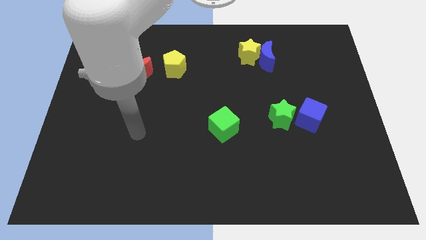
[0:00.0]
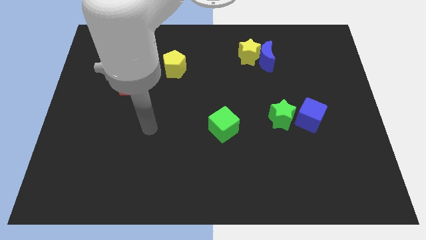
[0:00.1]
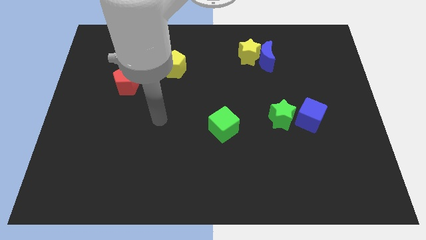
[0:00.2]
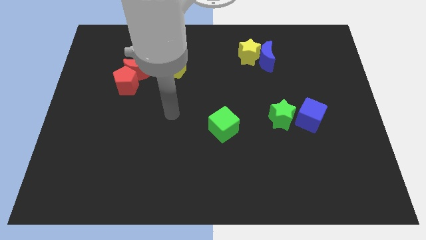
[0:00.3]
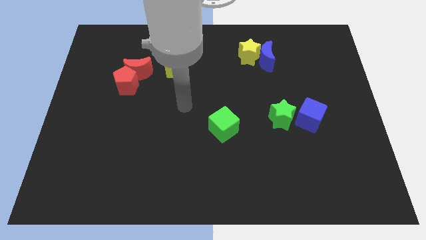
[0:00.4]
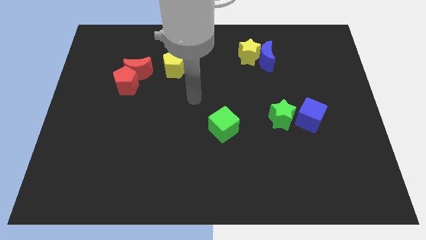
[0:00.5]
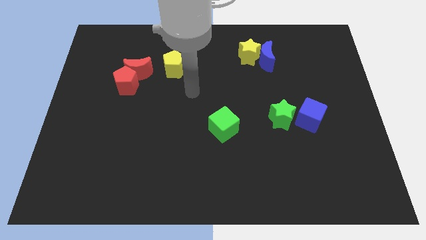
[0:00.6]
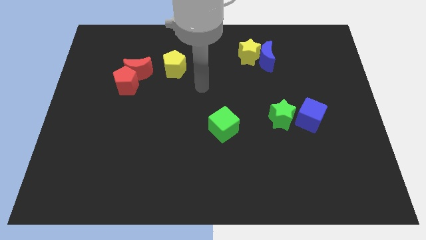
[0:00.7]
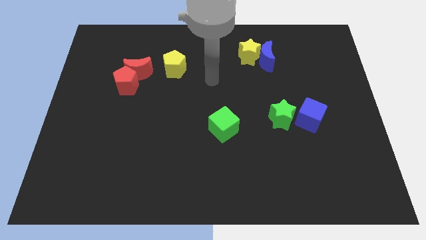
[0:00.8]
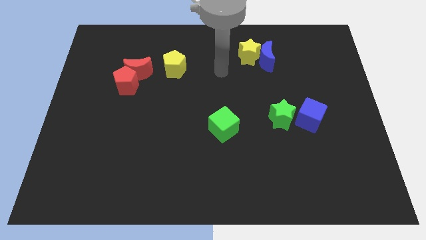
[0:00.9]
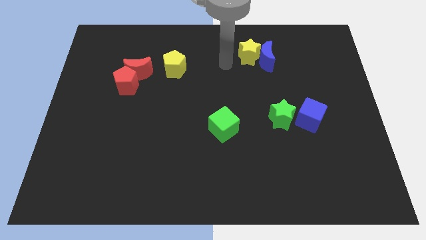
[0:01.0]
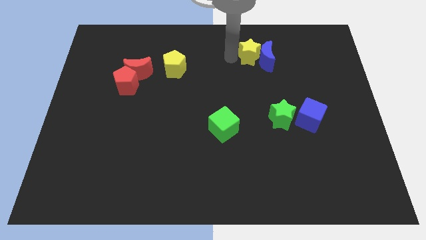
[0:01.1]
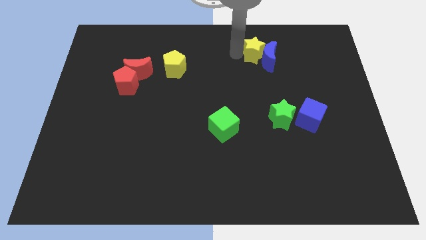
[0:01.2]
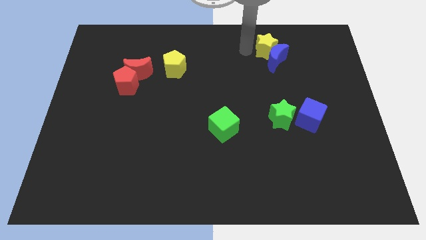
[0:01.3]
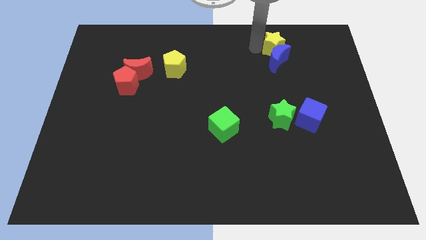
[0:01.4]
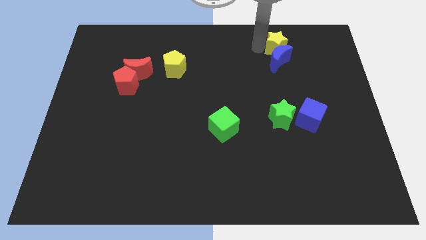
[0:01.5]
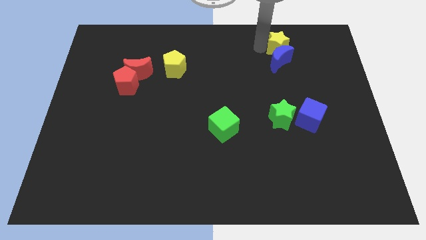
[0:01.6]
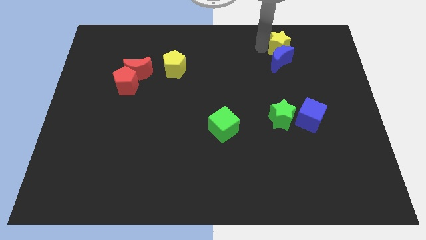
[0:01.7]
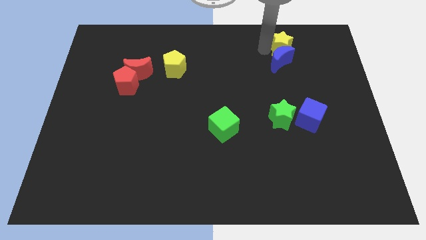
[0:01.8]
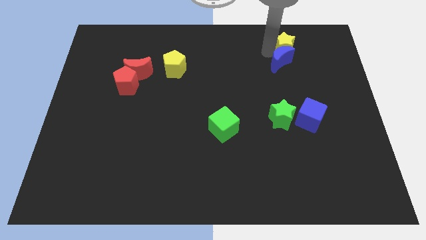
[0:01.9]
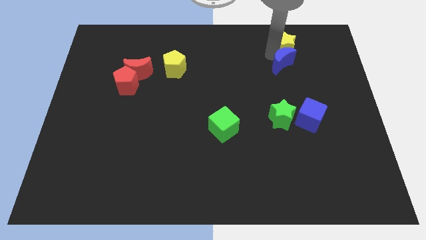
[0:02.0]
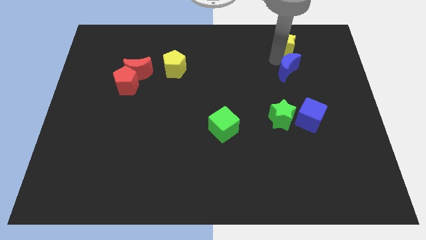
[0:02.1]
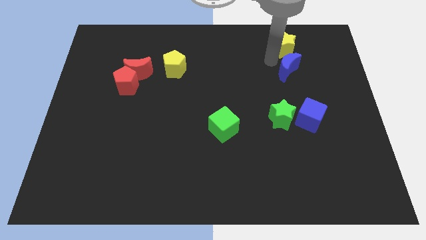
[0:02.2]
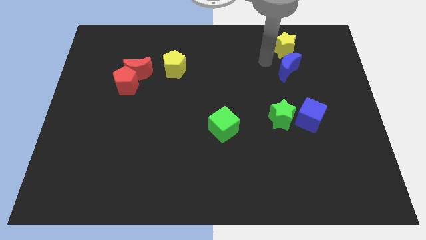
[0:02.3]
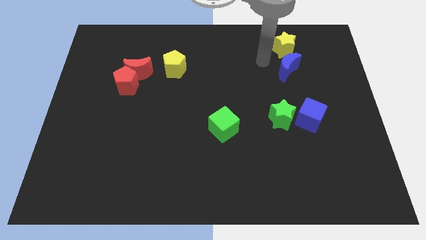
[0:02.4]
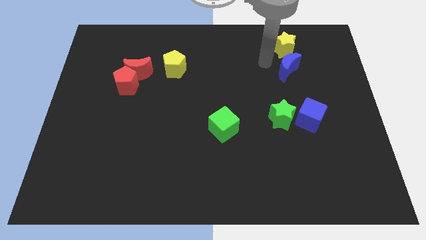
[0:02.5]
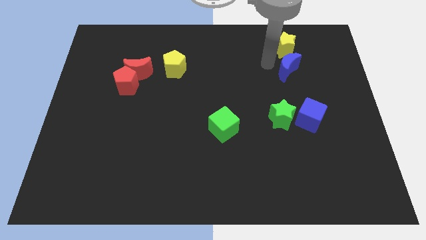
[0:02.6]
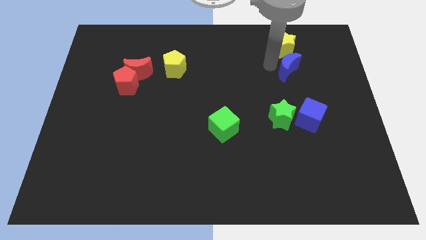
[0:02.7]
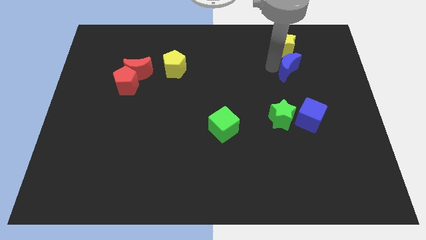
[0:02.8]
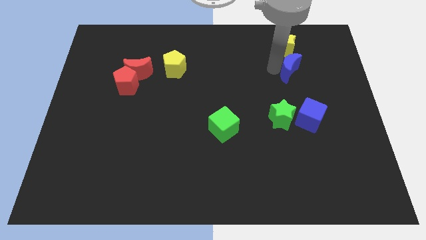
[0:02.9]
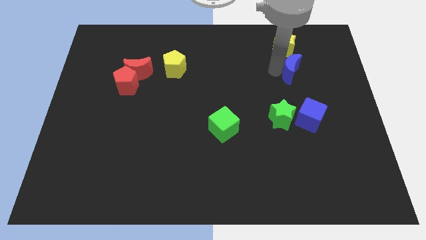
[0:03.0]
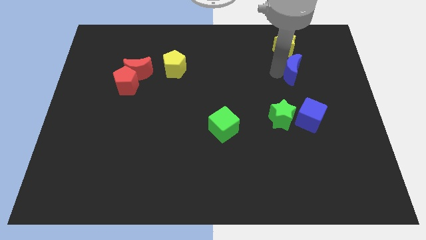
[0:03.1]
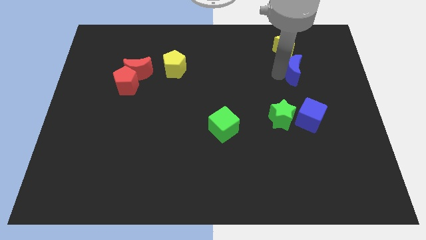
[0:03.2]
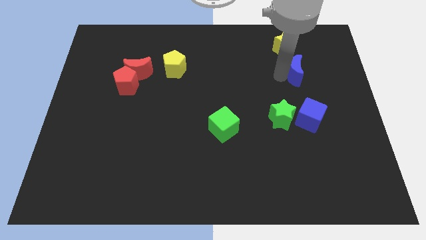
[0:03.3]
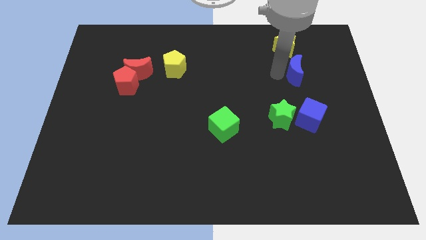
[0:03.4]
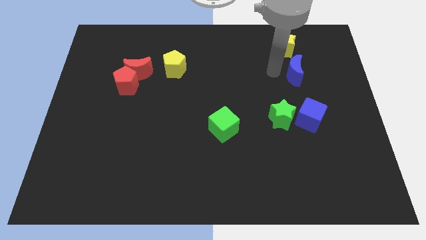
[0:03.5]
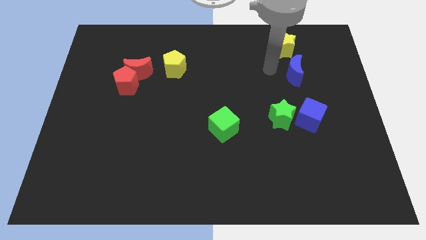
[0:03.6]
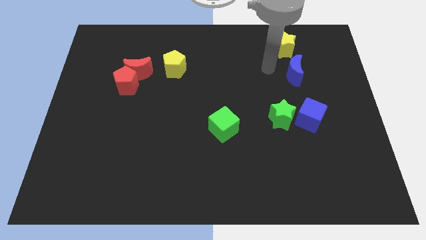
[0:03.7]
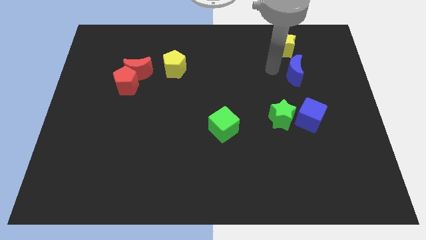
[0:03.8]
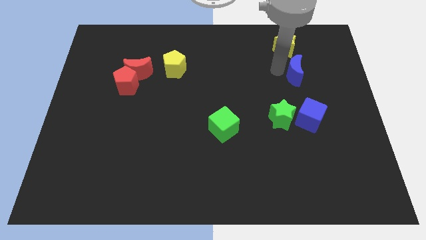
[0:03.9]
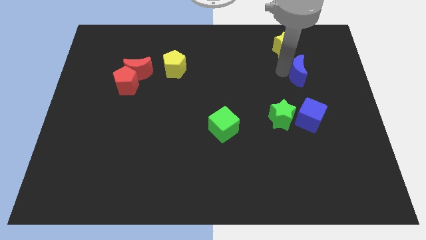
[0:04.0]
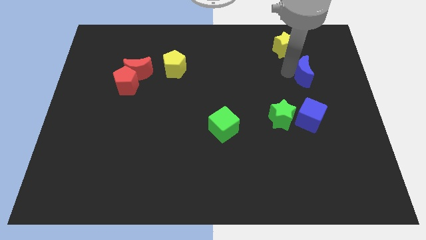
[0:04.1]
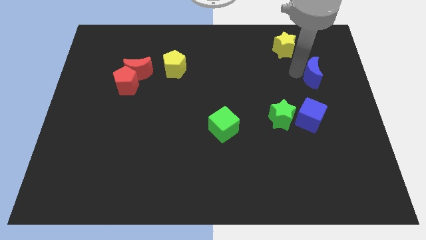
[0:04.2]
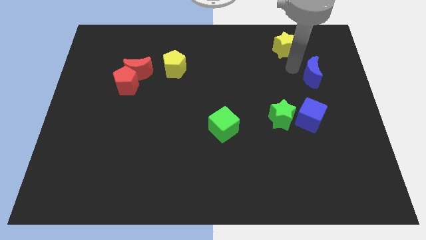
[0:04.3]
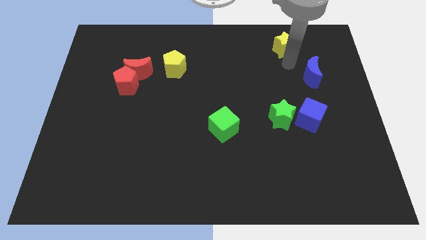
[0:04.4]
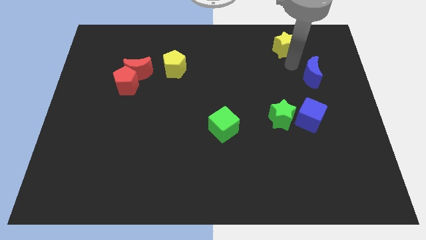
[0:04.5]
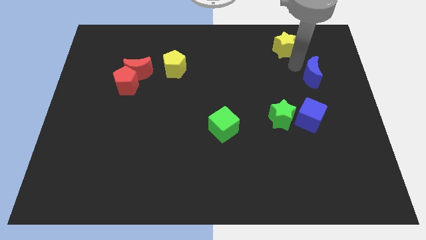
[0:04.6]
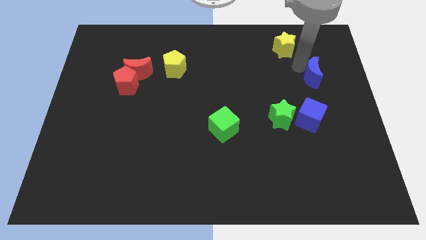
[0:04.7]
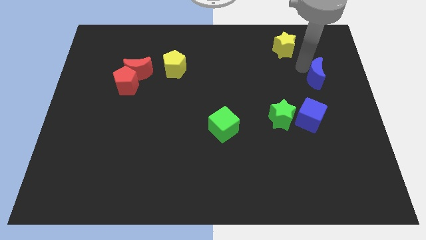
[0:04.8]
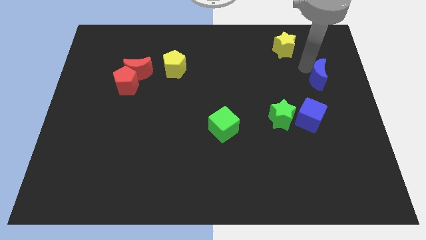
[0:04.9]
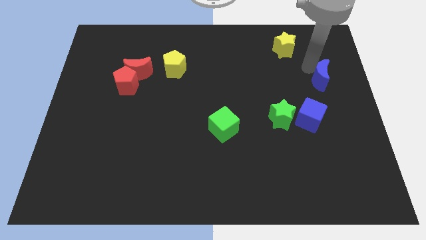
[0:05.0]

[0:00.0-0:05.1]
move the blue moon to the center right

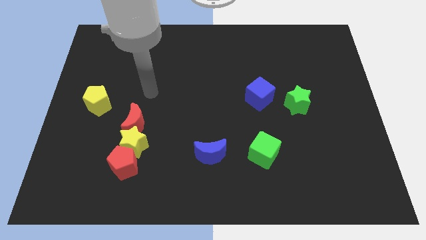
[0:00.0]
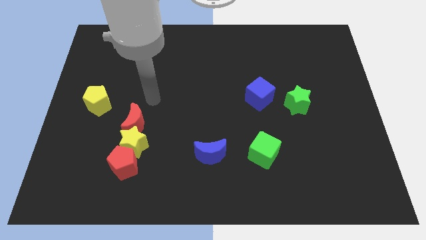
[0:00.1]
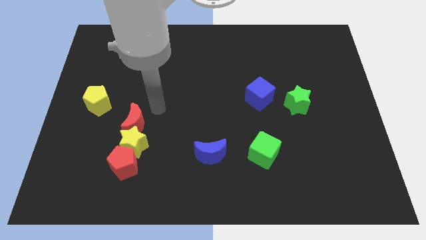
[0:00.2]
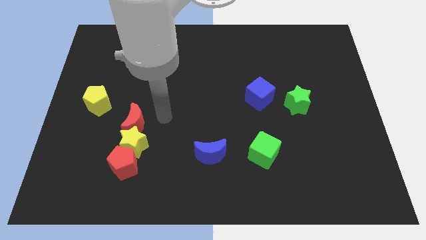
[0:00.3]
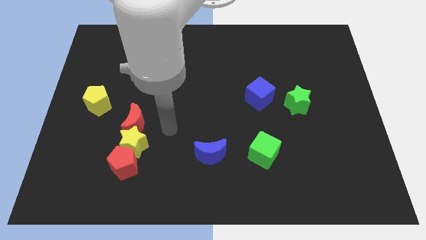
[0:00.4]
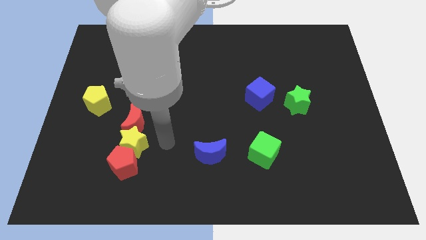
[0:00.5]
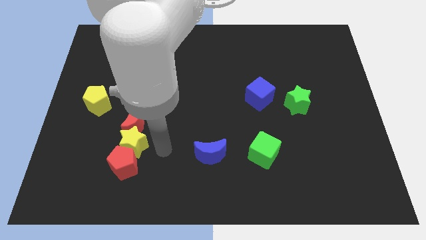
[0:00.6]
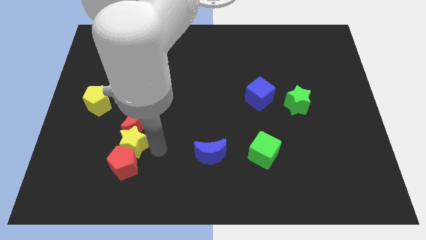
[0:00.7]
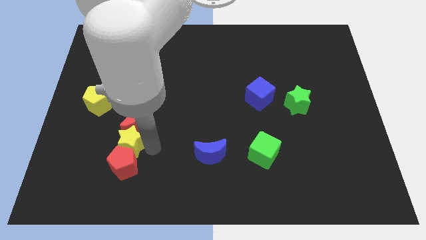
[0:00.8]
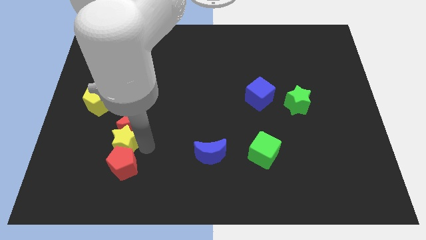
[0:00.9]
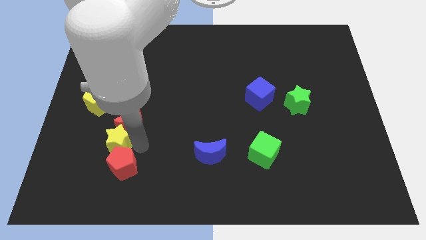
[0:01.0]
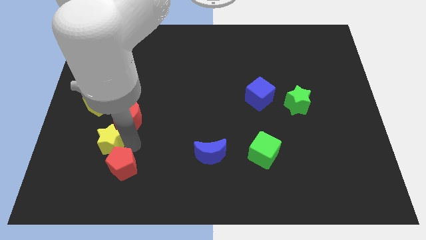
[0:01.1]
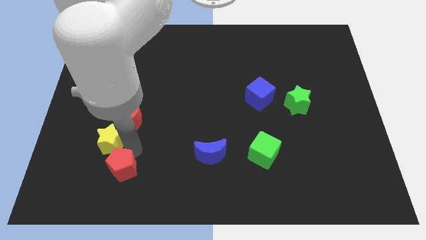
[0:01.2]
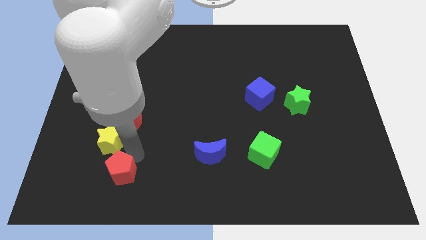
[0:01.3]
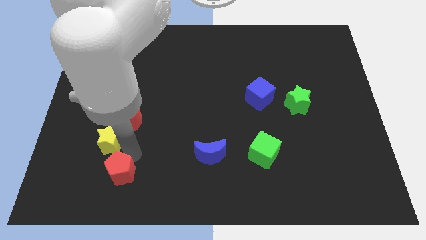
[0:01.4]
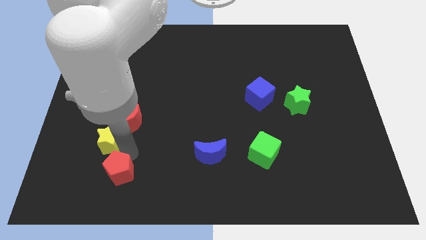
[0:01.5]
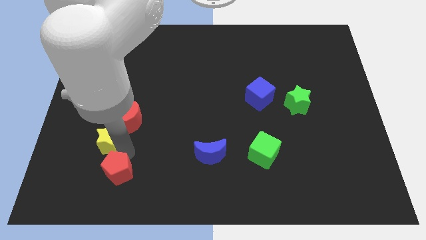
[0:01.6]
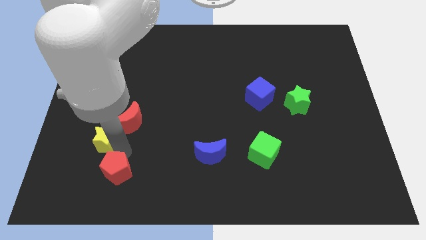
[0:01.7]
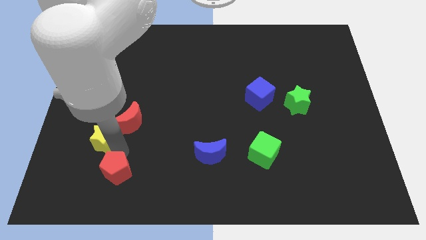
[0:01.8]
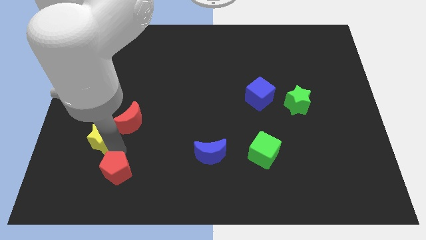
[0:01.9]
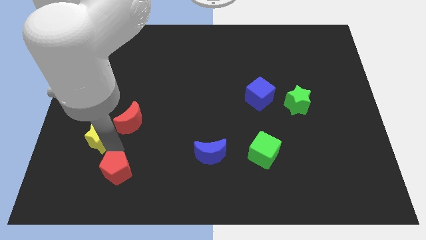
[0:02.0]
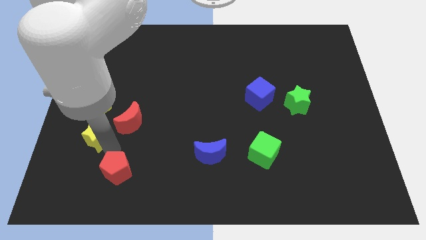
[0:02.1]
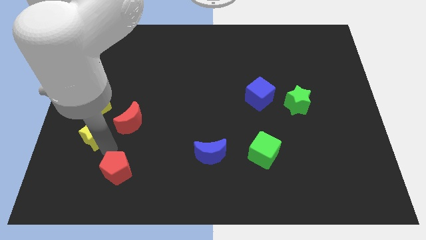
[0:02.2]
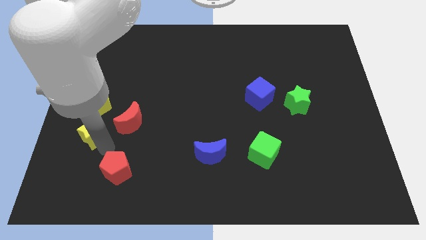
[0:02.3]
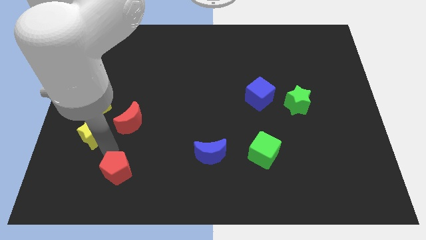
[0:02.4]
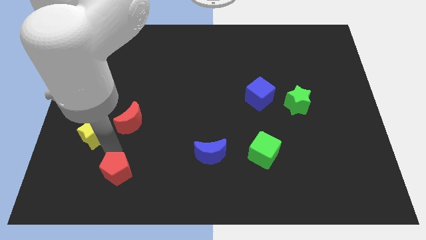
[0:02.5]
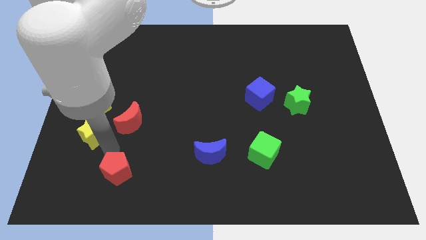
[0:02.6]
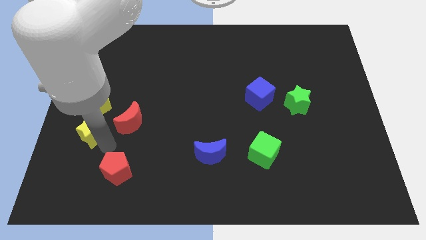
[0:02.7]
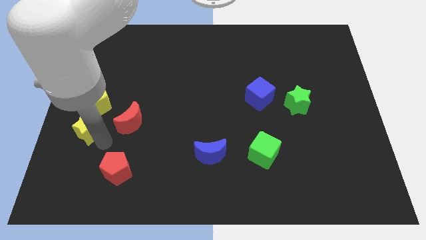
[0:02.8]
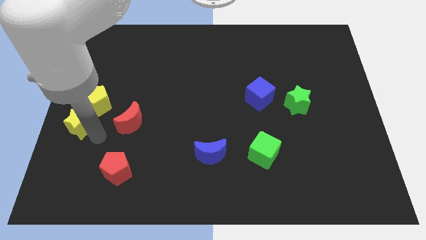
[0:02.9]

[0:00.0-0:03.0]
push the yellow star to the left side of the board
